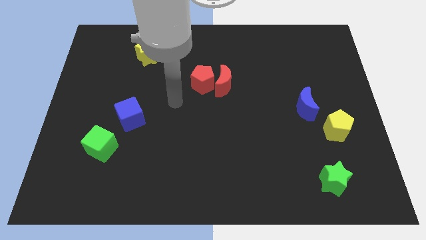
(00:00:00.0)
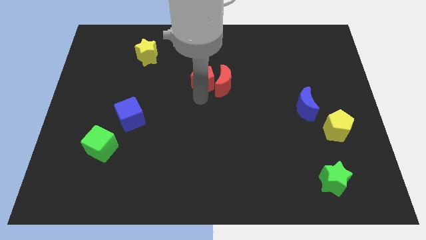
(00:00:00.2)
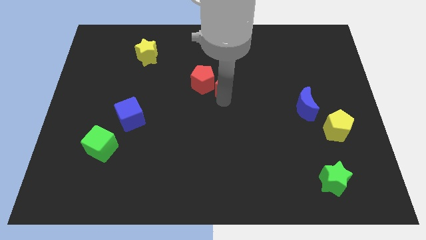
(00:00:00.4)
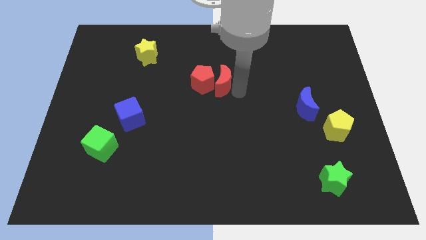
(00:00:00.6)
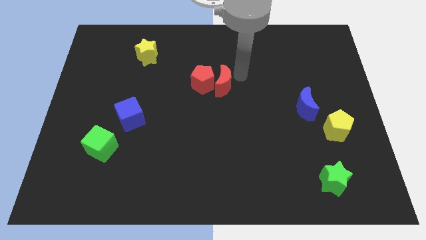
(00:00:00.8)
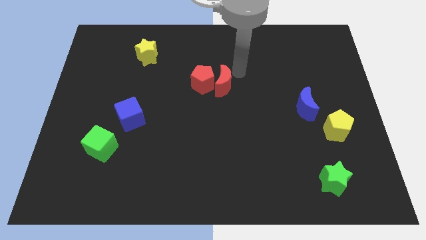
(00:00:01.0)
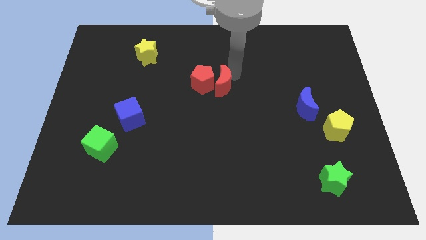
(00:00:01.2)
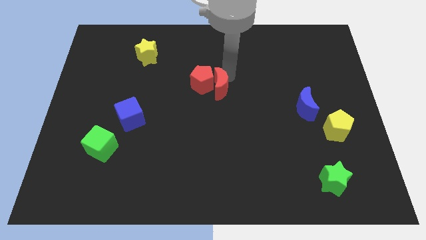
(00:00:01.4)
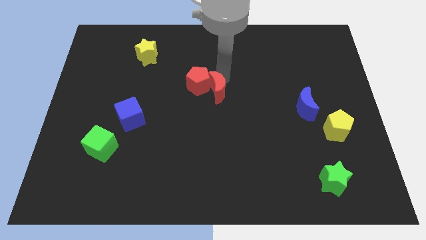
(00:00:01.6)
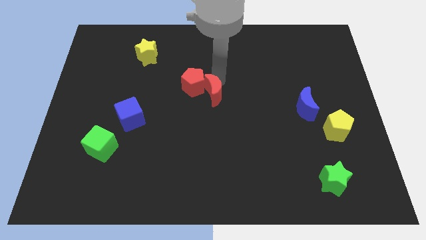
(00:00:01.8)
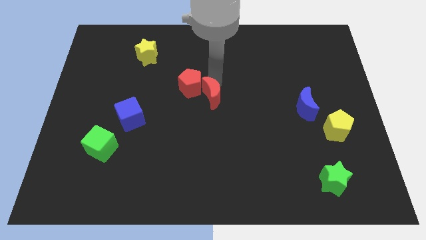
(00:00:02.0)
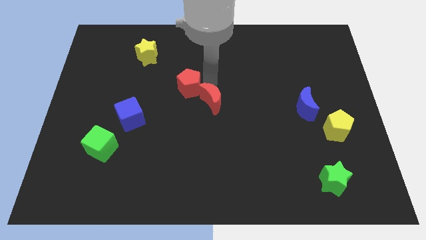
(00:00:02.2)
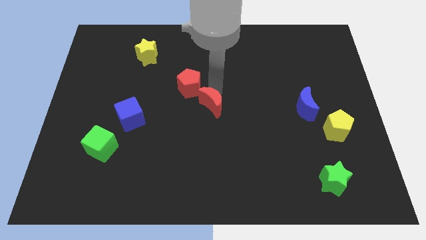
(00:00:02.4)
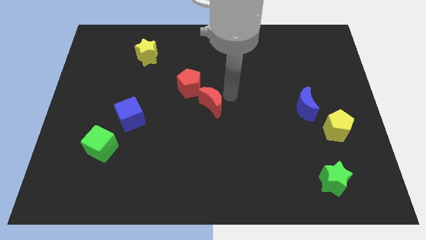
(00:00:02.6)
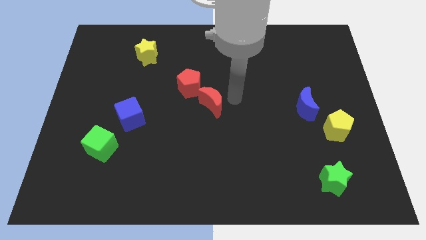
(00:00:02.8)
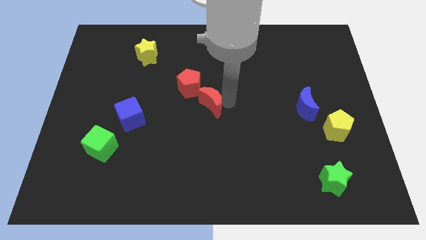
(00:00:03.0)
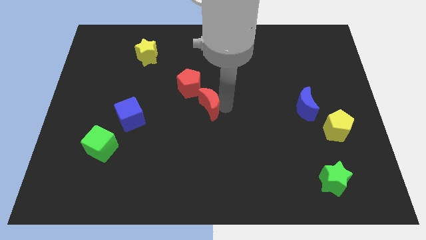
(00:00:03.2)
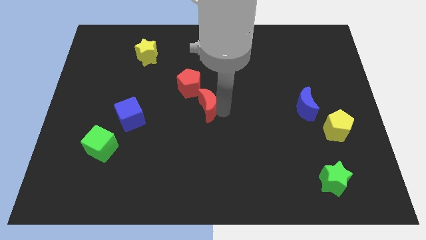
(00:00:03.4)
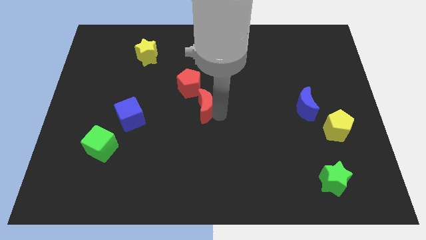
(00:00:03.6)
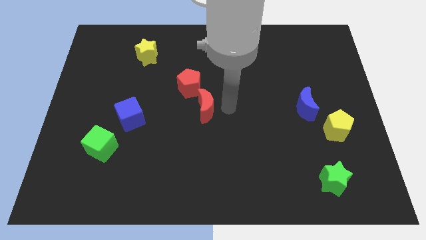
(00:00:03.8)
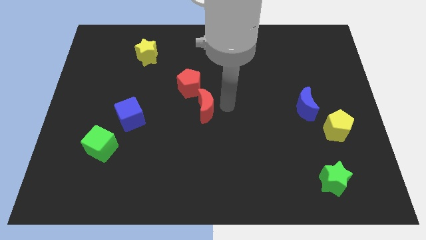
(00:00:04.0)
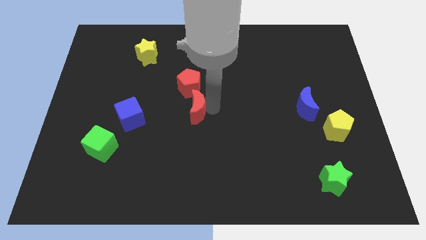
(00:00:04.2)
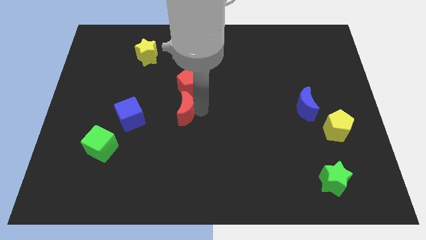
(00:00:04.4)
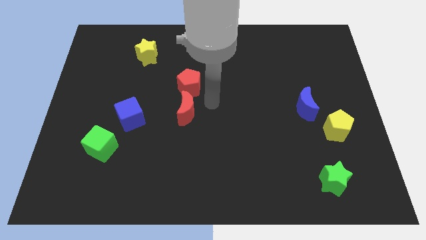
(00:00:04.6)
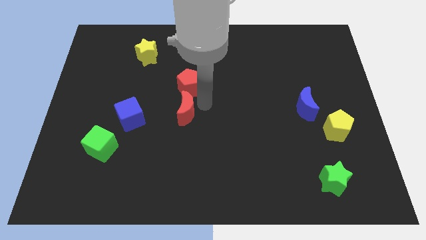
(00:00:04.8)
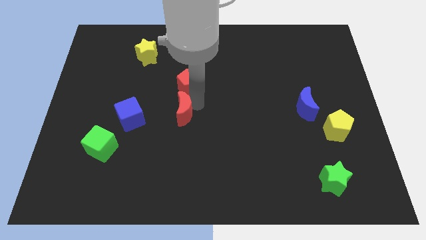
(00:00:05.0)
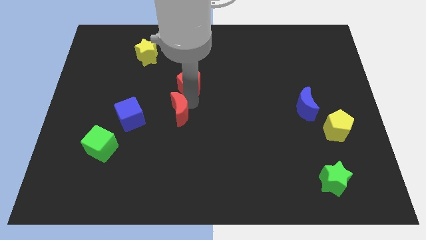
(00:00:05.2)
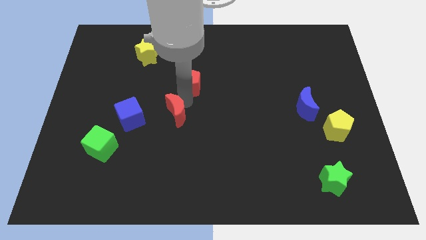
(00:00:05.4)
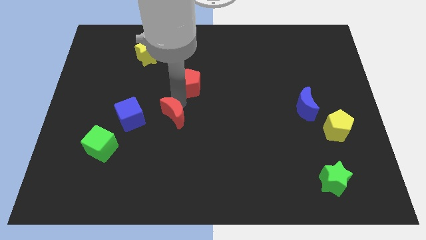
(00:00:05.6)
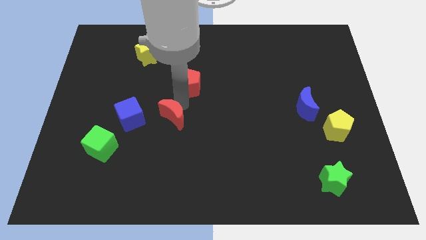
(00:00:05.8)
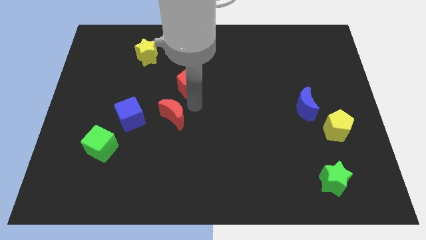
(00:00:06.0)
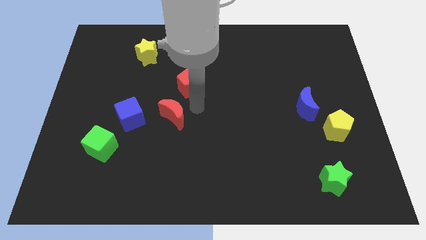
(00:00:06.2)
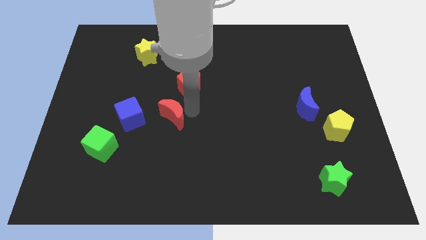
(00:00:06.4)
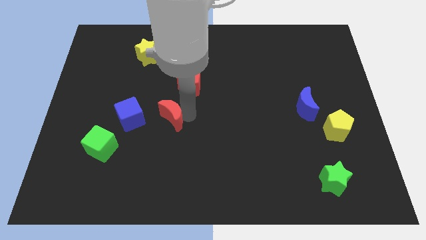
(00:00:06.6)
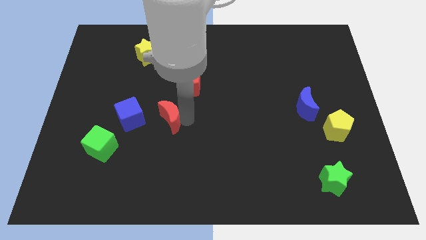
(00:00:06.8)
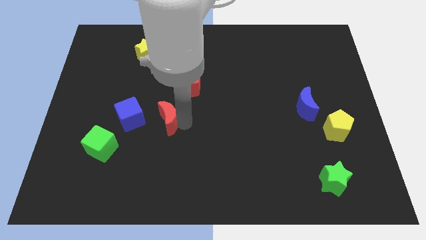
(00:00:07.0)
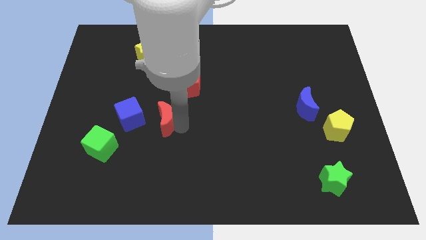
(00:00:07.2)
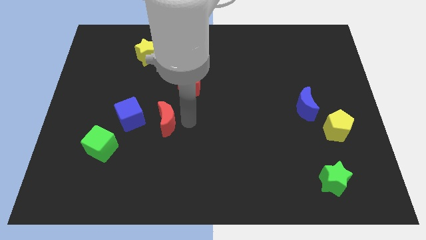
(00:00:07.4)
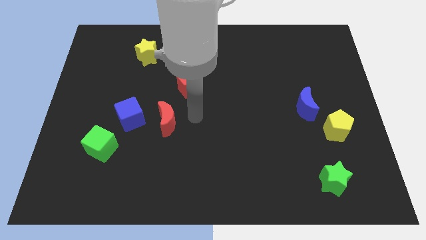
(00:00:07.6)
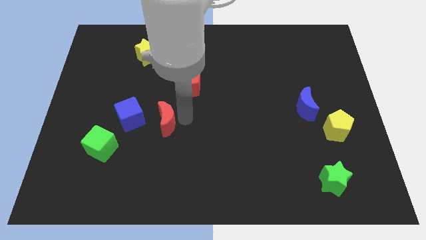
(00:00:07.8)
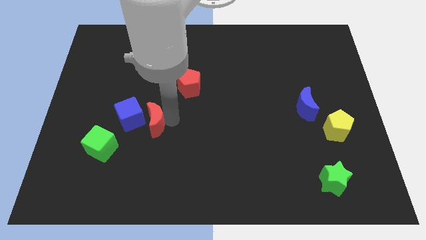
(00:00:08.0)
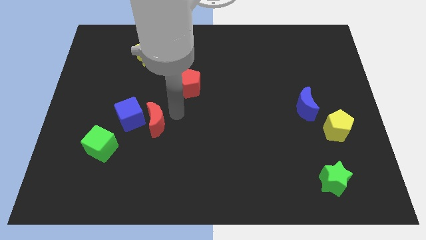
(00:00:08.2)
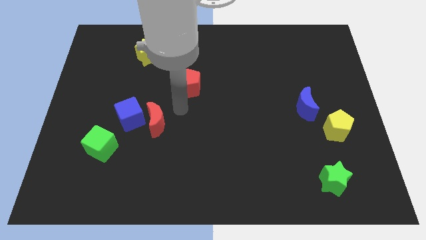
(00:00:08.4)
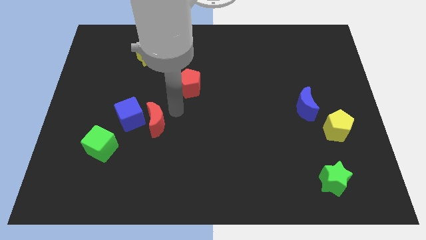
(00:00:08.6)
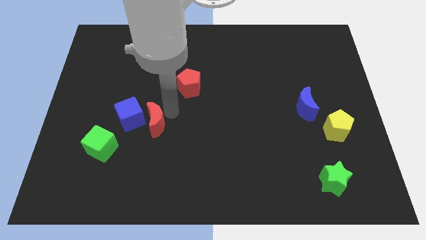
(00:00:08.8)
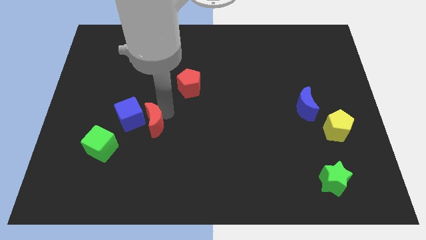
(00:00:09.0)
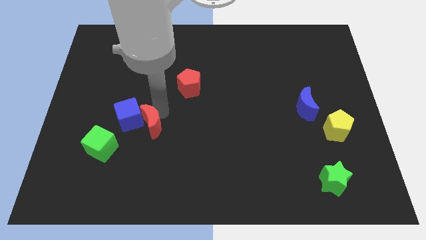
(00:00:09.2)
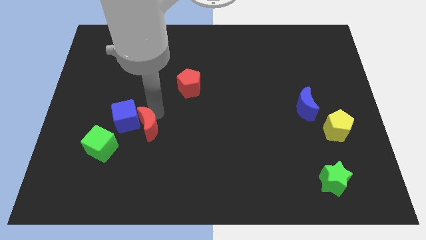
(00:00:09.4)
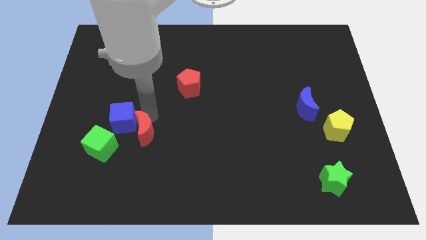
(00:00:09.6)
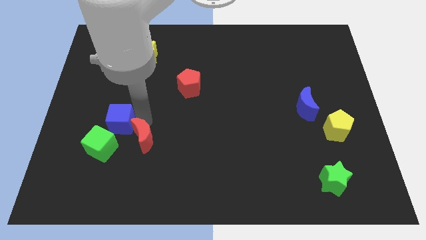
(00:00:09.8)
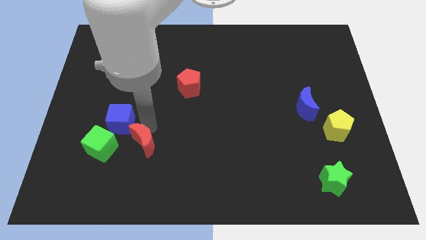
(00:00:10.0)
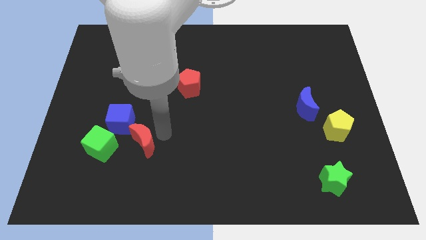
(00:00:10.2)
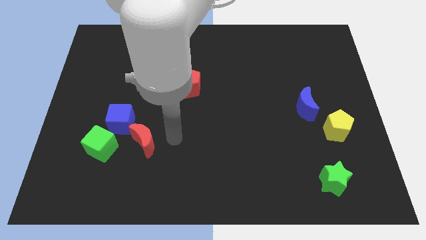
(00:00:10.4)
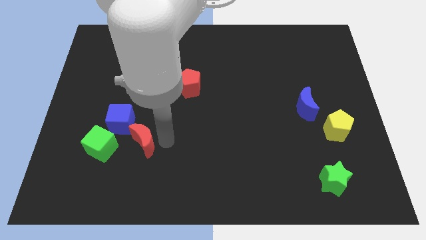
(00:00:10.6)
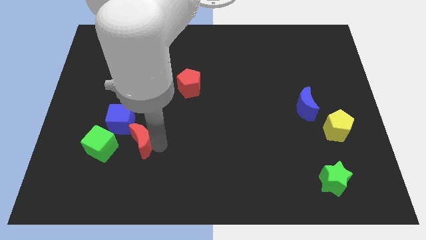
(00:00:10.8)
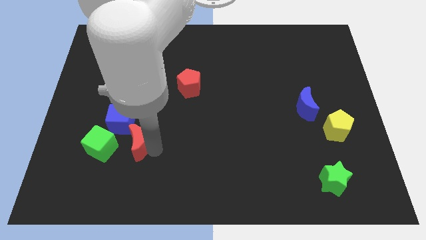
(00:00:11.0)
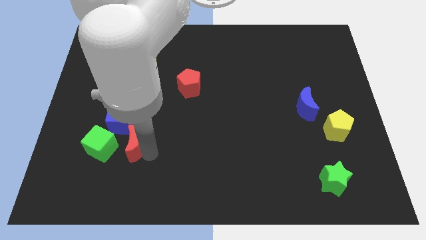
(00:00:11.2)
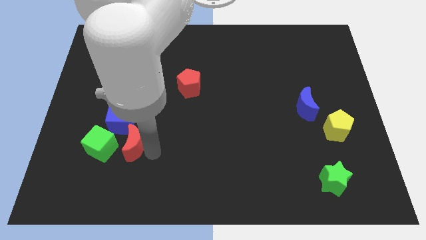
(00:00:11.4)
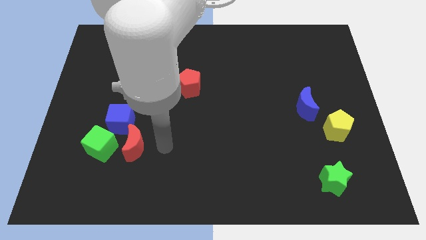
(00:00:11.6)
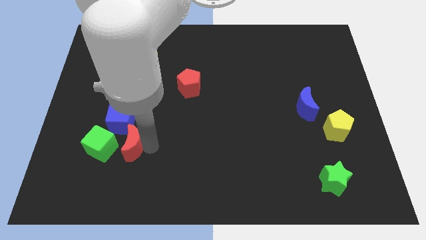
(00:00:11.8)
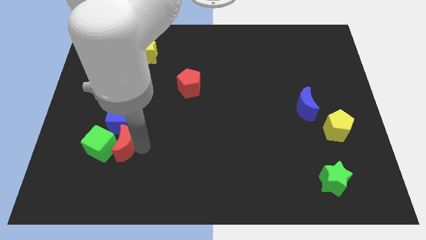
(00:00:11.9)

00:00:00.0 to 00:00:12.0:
slide the red moon to the green cube
